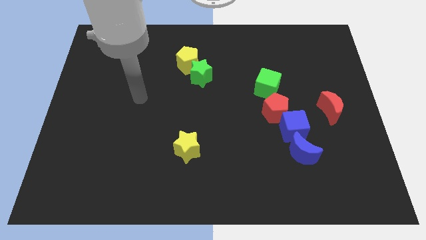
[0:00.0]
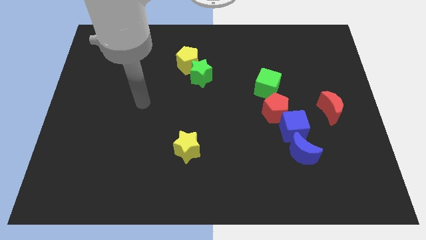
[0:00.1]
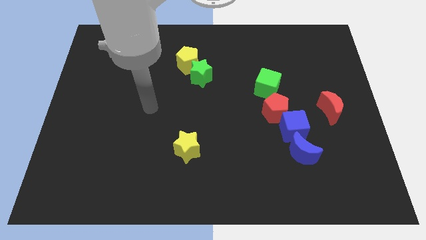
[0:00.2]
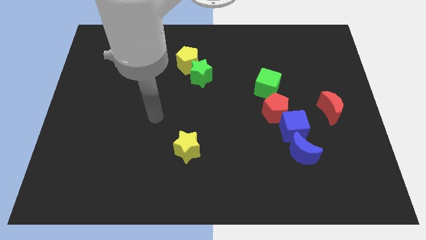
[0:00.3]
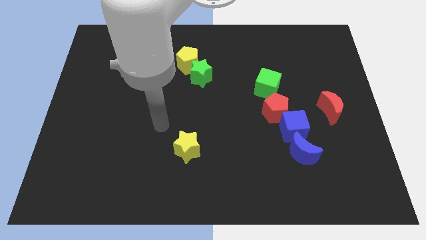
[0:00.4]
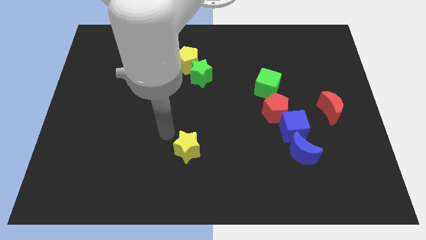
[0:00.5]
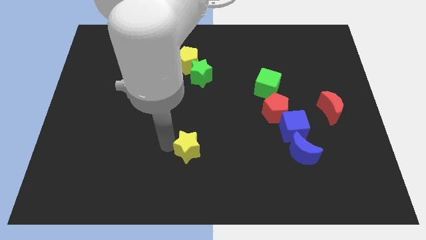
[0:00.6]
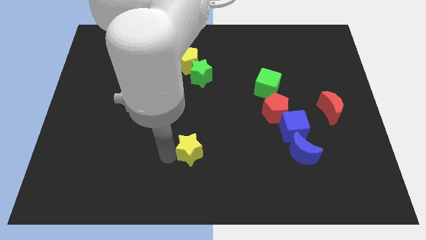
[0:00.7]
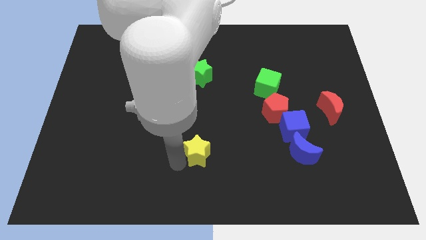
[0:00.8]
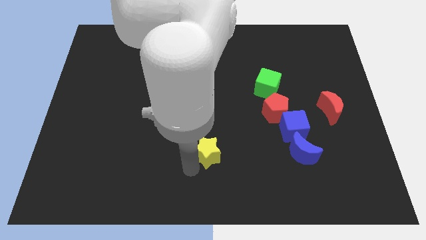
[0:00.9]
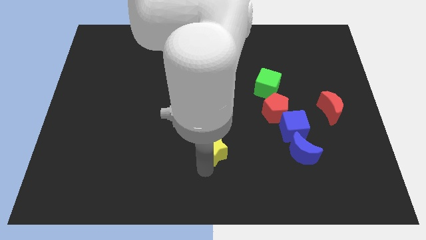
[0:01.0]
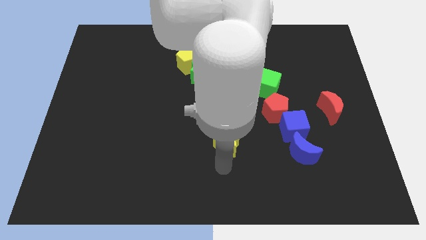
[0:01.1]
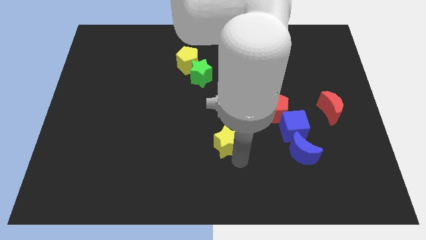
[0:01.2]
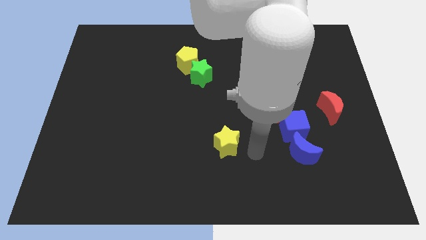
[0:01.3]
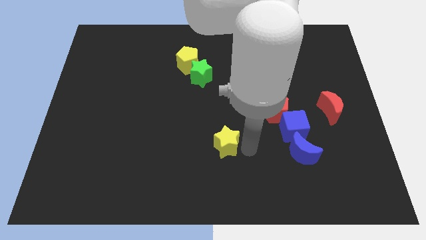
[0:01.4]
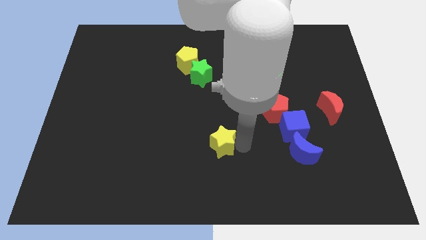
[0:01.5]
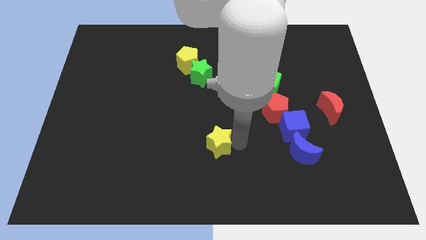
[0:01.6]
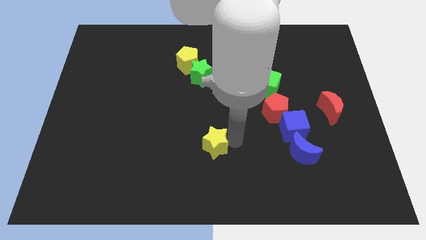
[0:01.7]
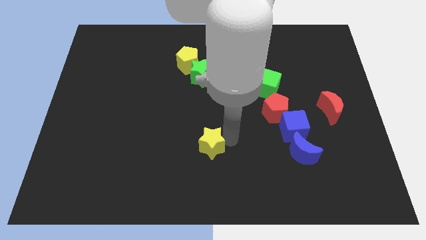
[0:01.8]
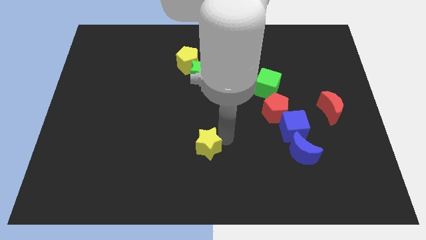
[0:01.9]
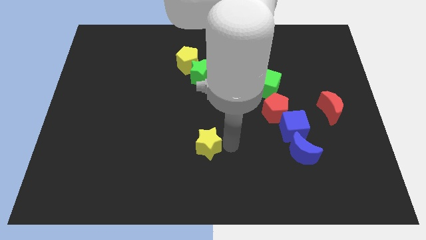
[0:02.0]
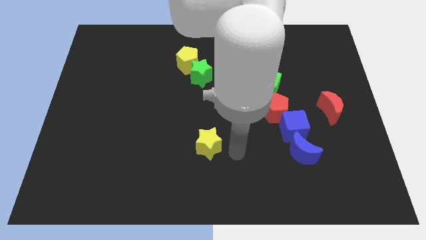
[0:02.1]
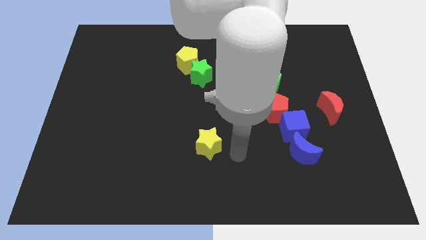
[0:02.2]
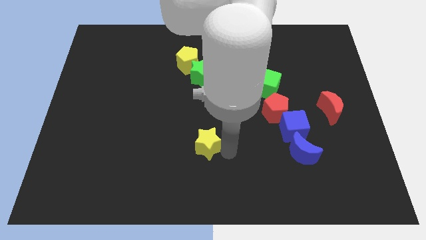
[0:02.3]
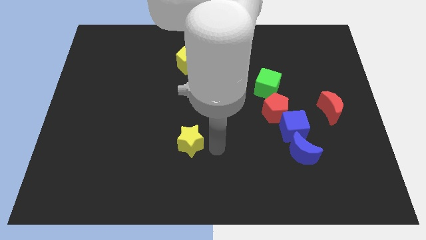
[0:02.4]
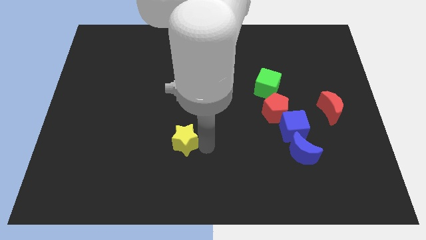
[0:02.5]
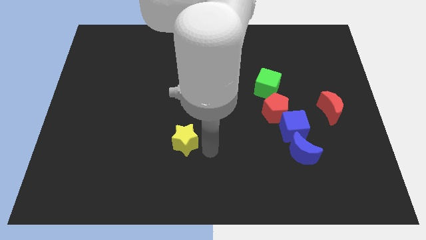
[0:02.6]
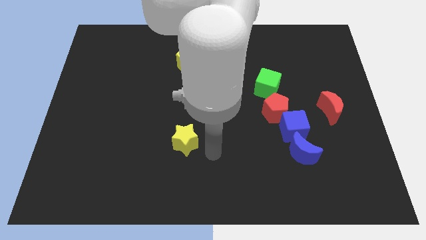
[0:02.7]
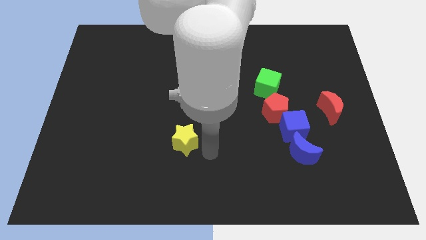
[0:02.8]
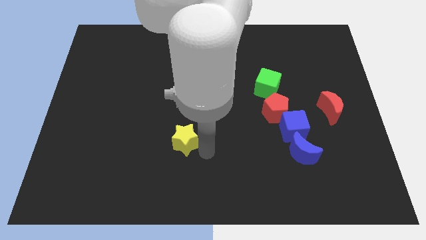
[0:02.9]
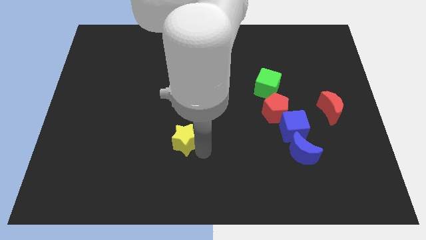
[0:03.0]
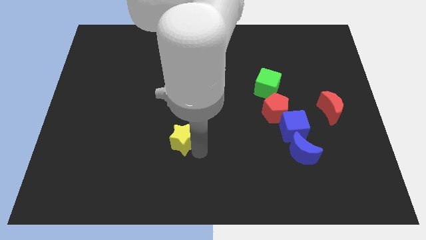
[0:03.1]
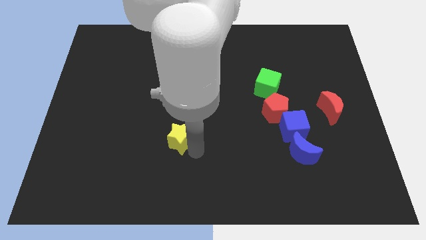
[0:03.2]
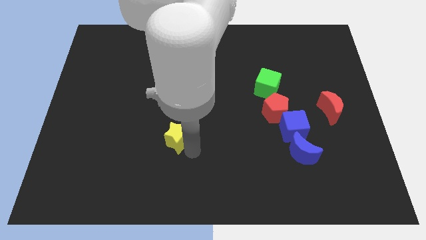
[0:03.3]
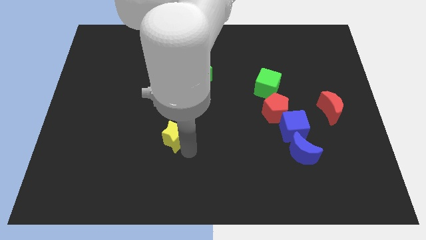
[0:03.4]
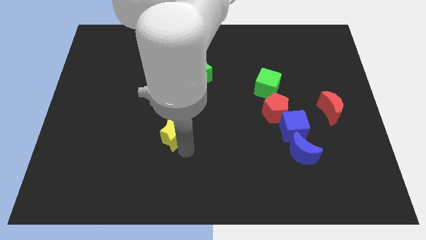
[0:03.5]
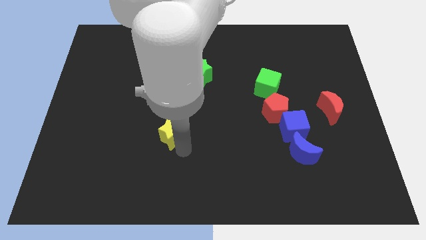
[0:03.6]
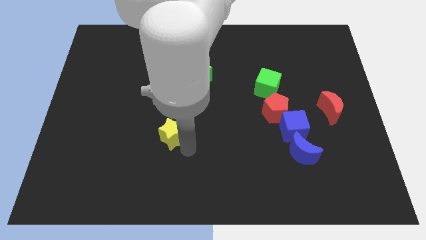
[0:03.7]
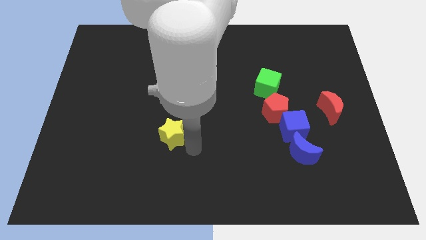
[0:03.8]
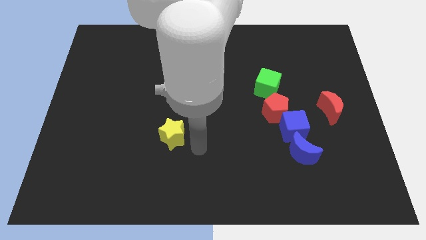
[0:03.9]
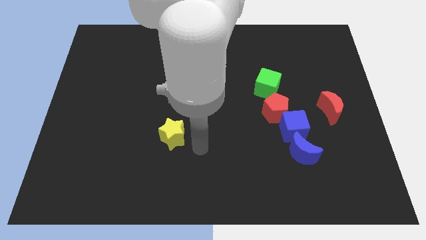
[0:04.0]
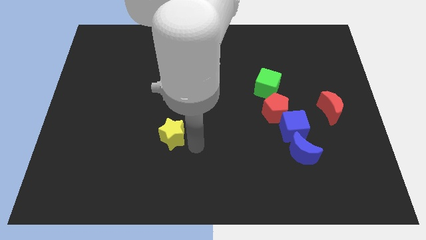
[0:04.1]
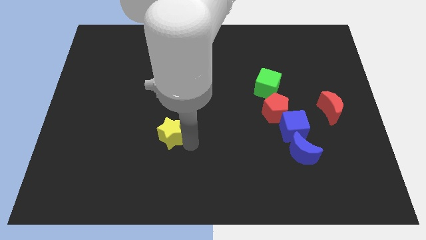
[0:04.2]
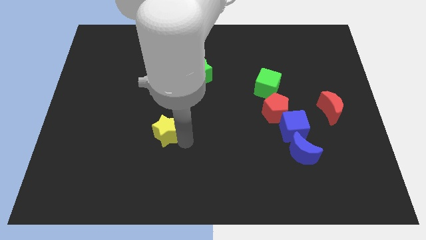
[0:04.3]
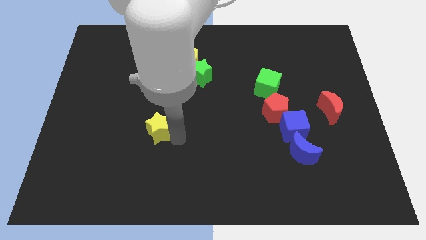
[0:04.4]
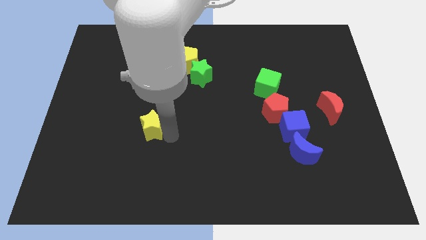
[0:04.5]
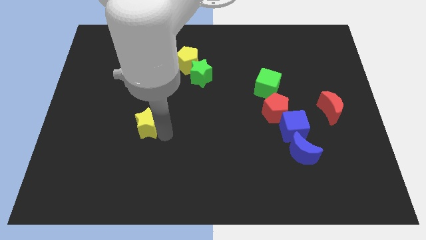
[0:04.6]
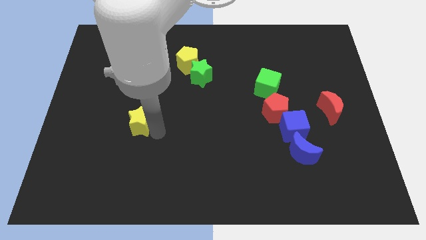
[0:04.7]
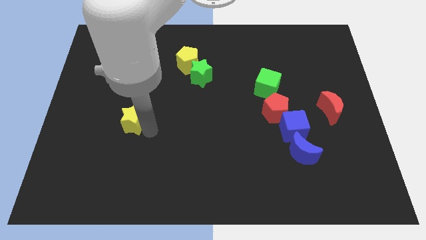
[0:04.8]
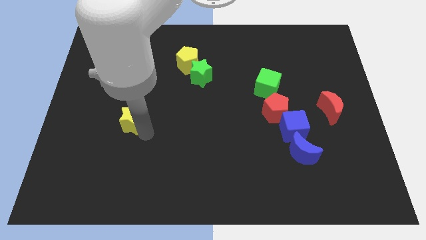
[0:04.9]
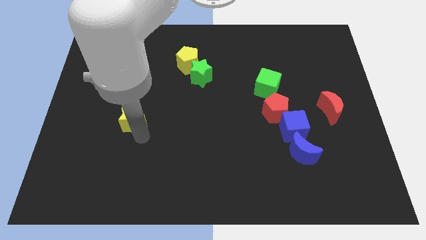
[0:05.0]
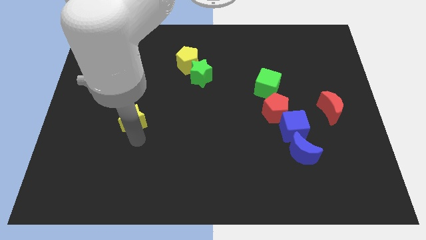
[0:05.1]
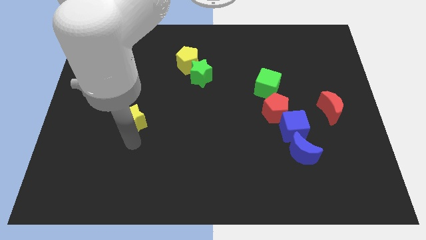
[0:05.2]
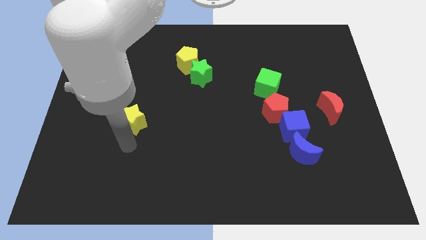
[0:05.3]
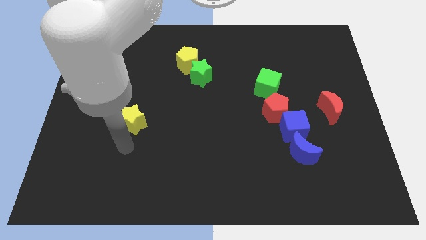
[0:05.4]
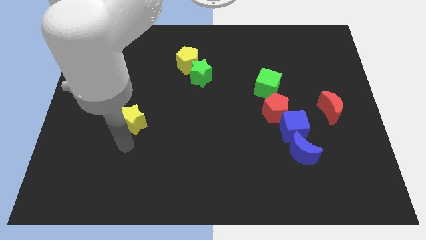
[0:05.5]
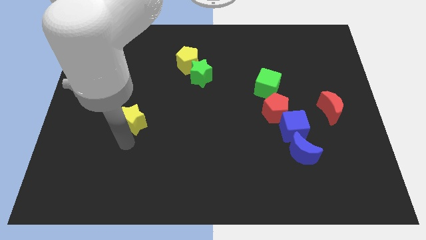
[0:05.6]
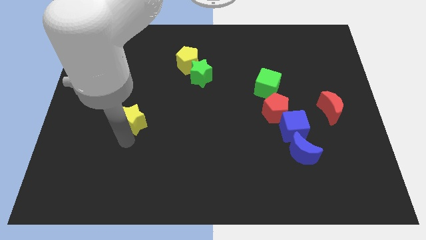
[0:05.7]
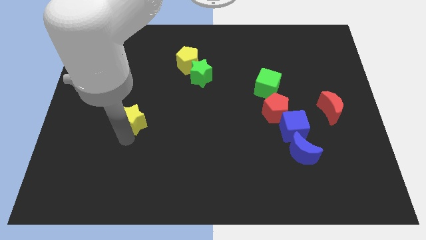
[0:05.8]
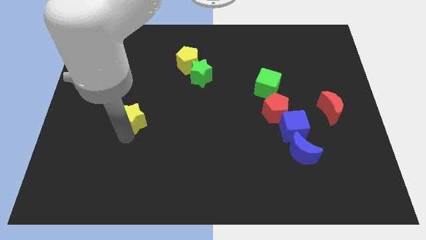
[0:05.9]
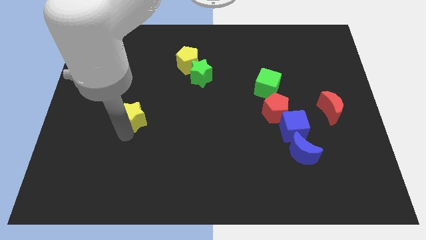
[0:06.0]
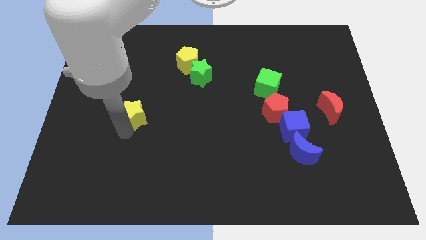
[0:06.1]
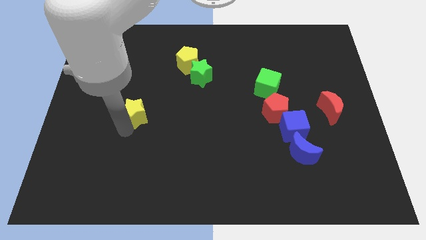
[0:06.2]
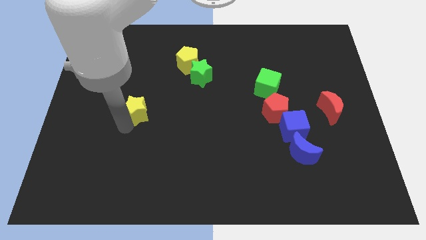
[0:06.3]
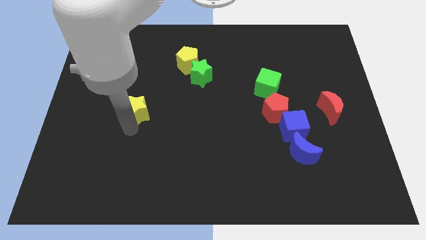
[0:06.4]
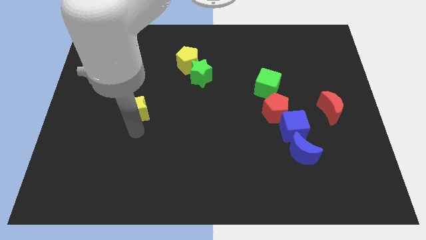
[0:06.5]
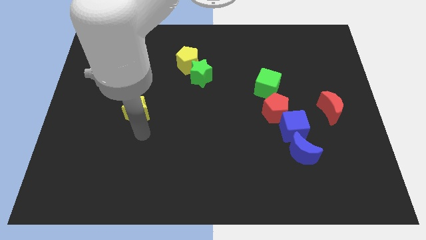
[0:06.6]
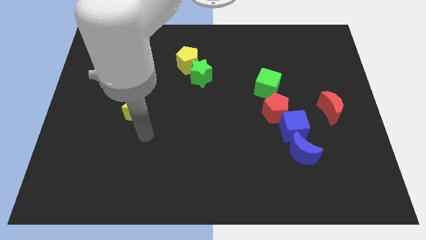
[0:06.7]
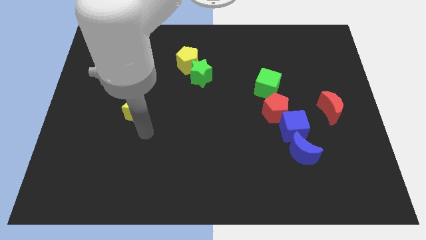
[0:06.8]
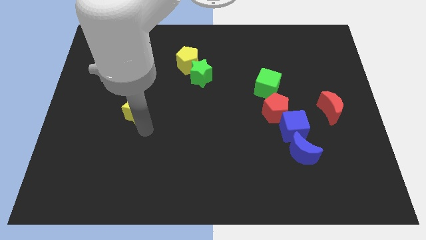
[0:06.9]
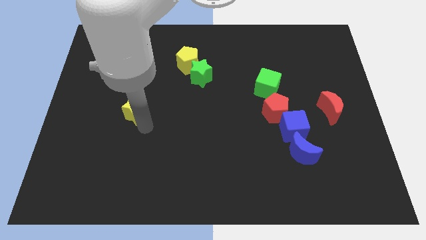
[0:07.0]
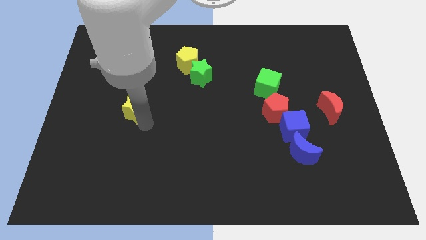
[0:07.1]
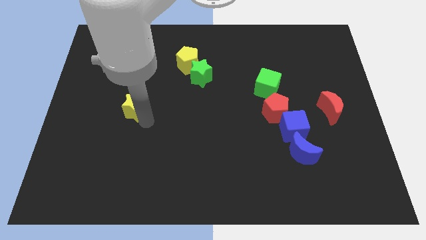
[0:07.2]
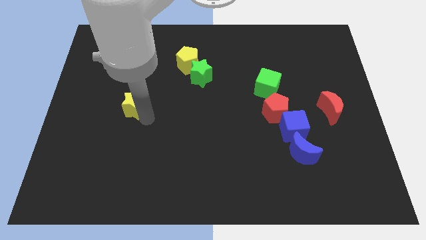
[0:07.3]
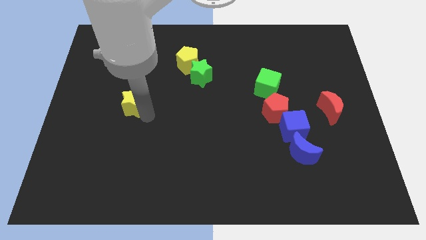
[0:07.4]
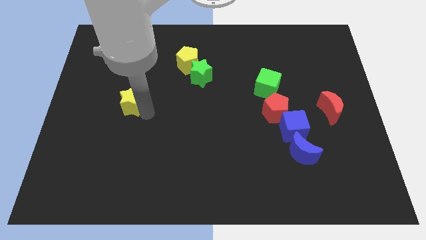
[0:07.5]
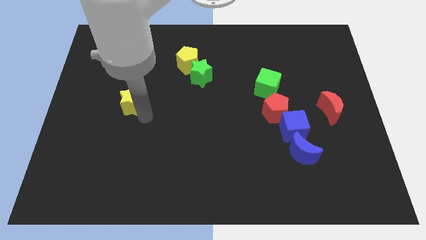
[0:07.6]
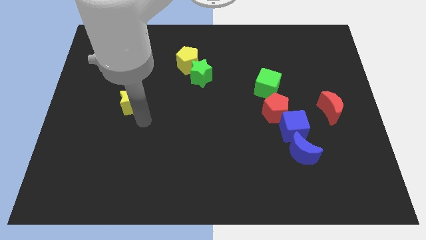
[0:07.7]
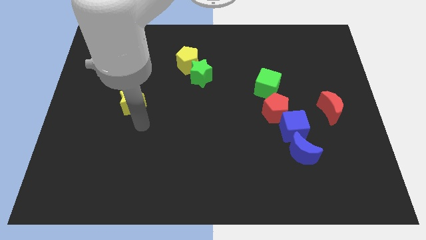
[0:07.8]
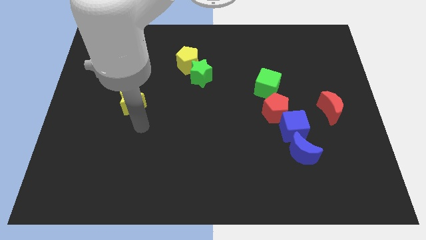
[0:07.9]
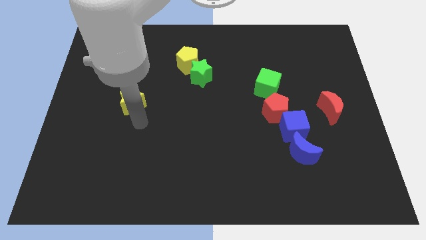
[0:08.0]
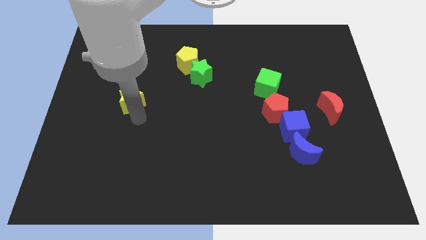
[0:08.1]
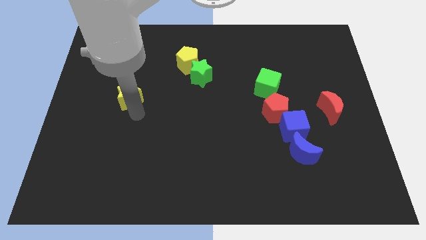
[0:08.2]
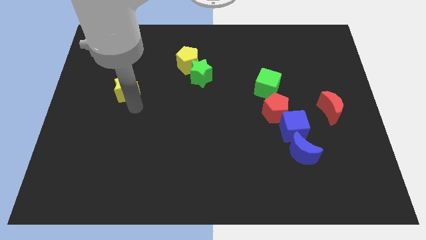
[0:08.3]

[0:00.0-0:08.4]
push the yellow star up and to the left diagonally
